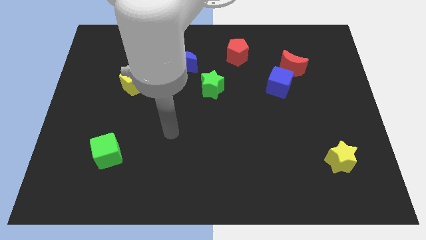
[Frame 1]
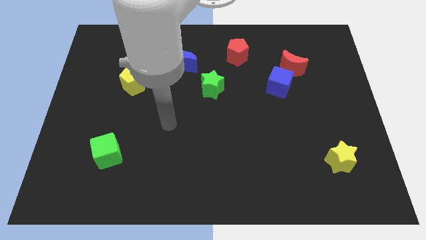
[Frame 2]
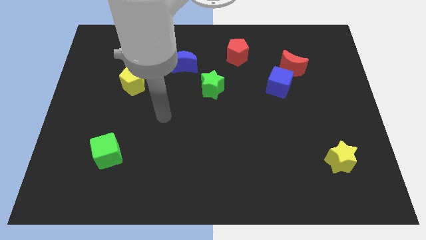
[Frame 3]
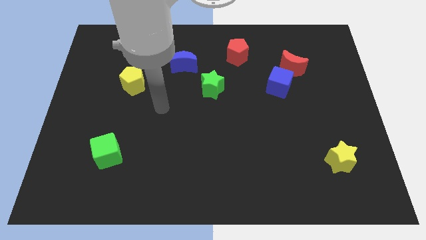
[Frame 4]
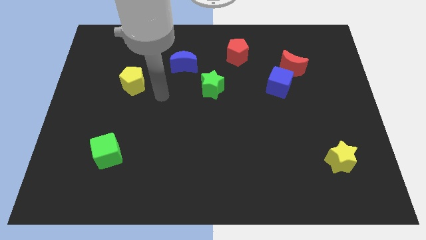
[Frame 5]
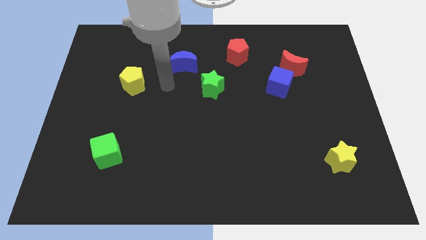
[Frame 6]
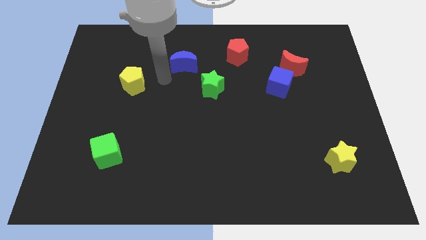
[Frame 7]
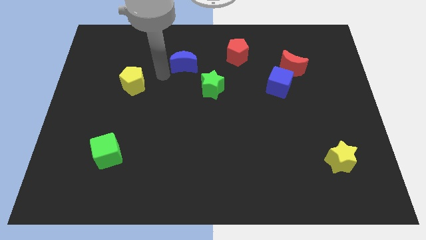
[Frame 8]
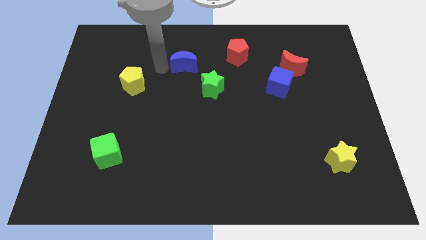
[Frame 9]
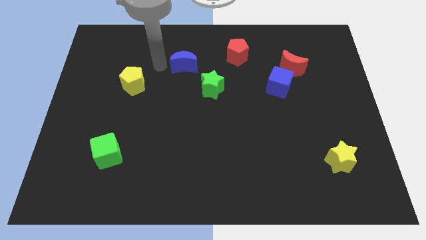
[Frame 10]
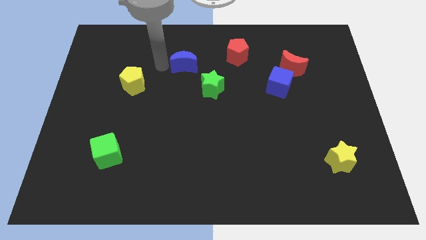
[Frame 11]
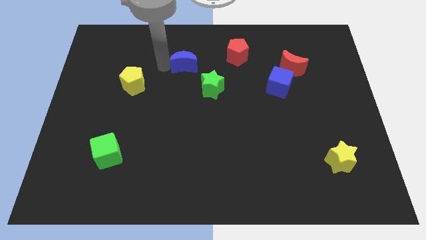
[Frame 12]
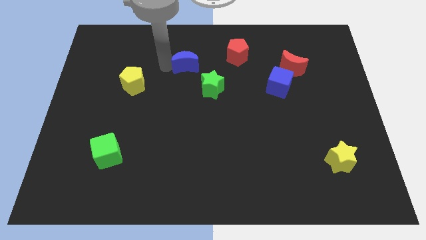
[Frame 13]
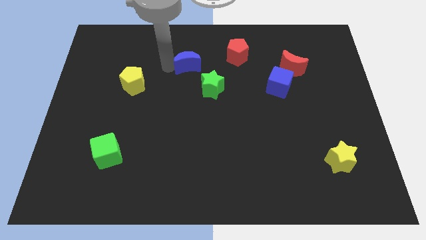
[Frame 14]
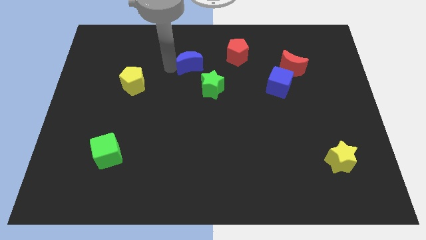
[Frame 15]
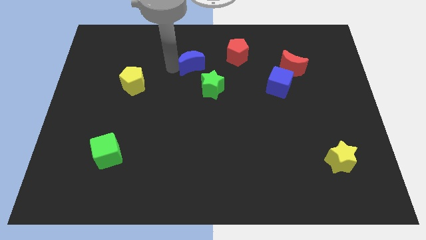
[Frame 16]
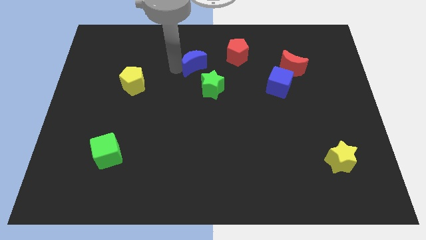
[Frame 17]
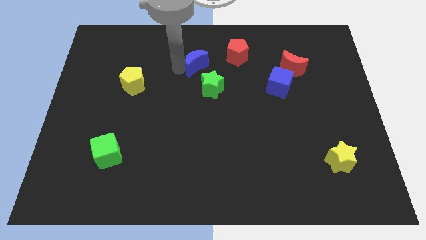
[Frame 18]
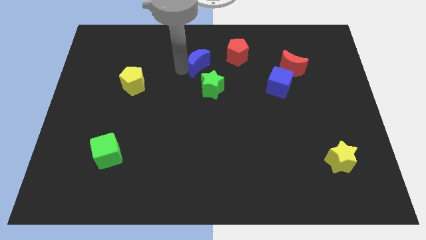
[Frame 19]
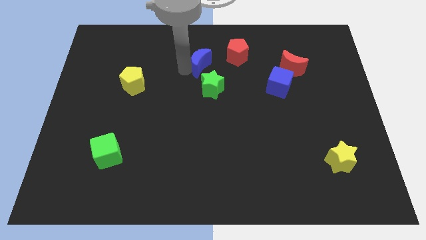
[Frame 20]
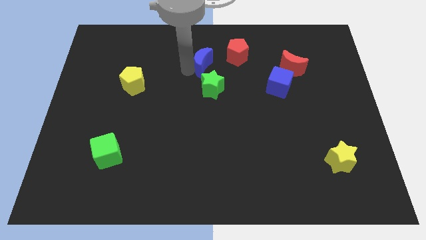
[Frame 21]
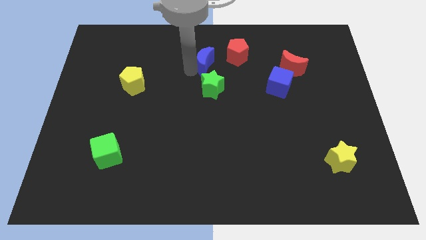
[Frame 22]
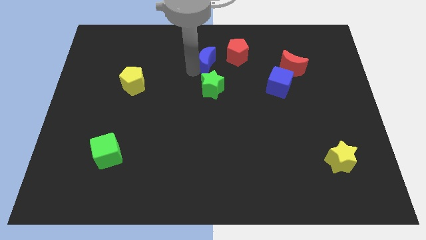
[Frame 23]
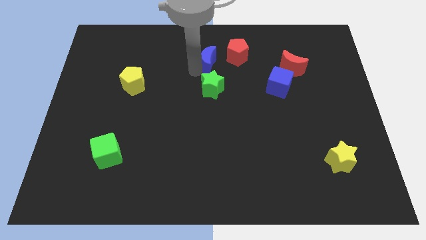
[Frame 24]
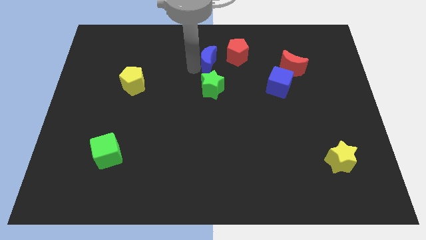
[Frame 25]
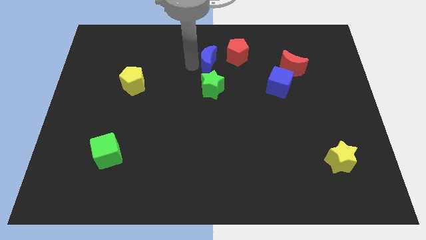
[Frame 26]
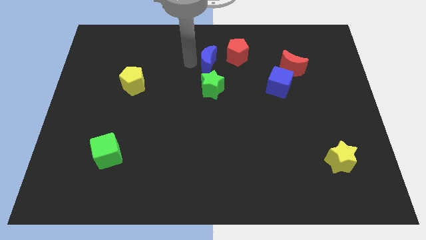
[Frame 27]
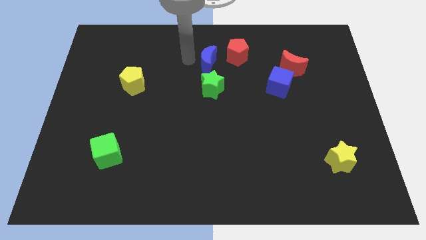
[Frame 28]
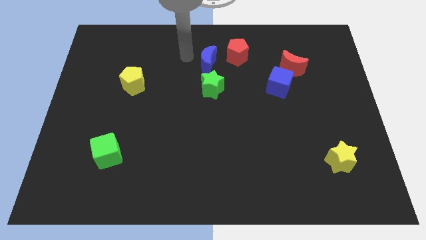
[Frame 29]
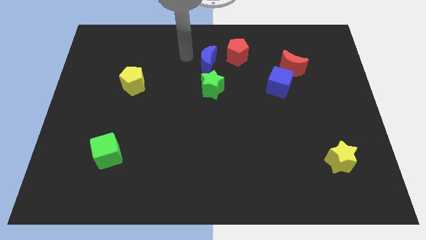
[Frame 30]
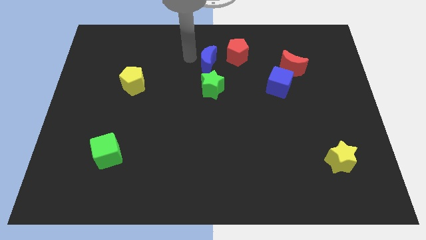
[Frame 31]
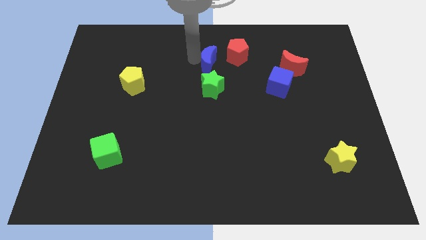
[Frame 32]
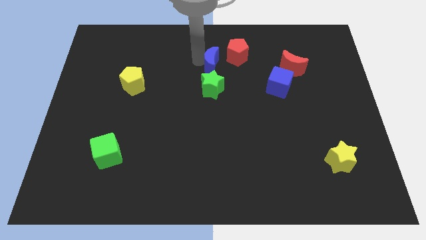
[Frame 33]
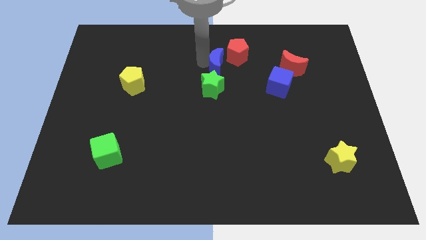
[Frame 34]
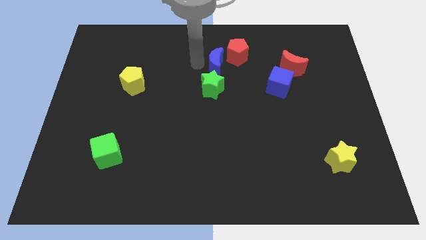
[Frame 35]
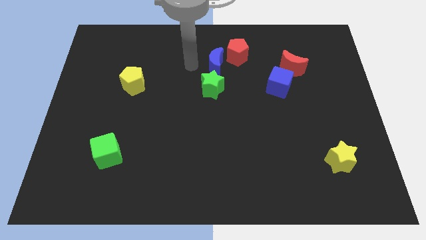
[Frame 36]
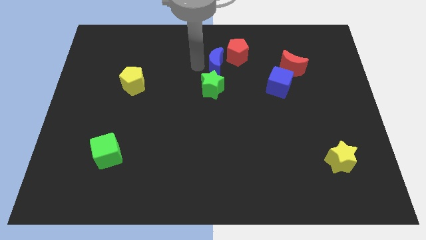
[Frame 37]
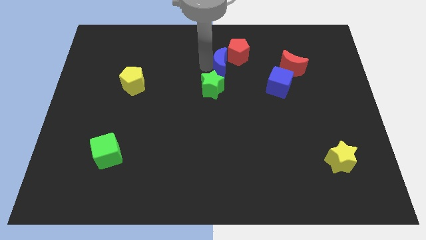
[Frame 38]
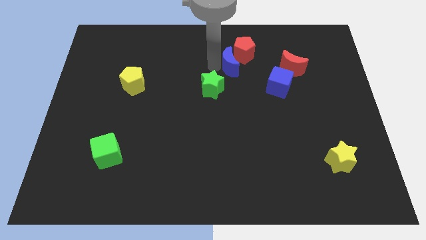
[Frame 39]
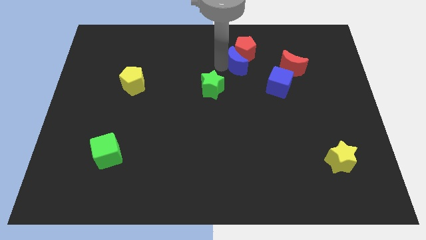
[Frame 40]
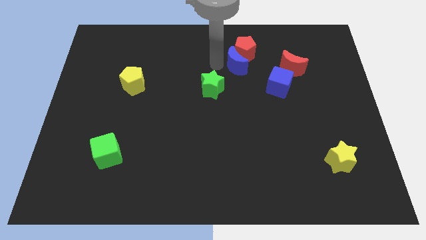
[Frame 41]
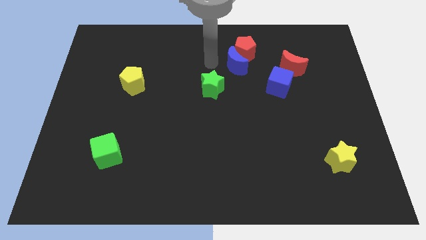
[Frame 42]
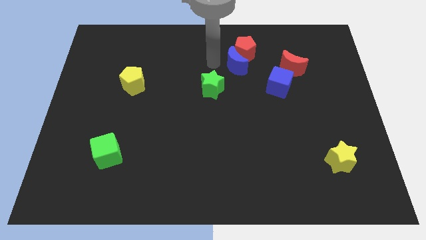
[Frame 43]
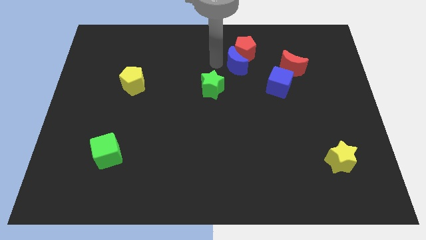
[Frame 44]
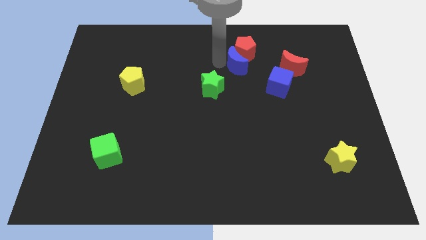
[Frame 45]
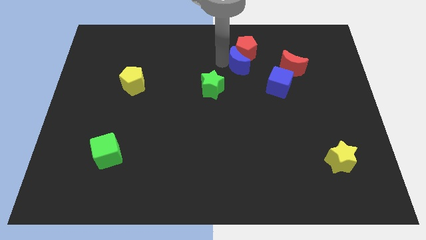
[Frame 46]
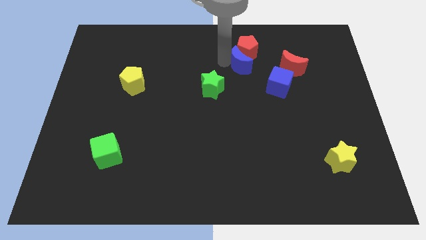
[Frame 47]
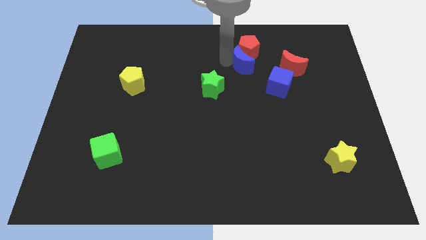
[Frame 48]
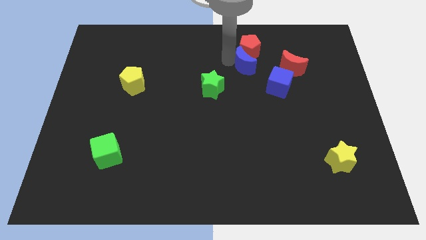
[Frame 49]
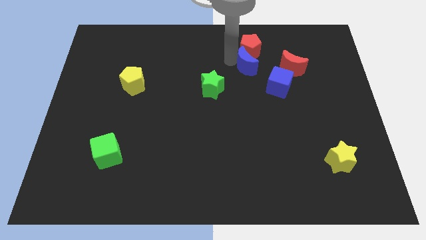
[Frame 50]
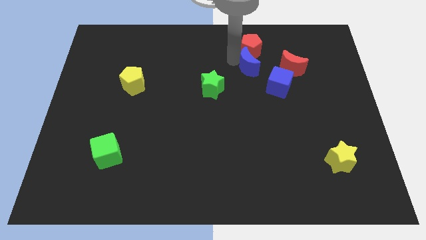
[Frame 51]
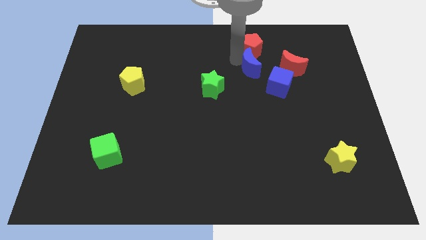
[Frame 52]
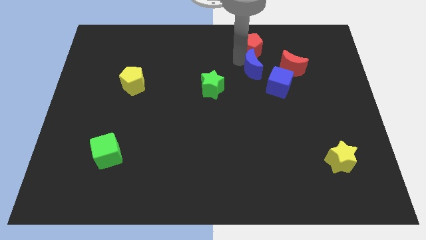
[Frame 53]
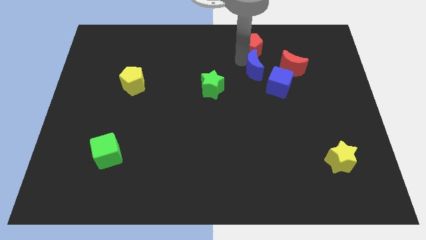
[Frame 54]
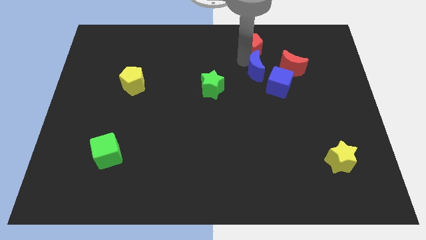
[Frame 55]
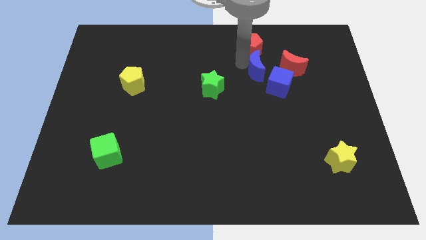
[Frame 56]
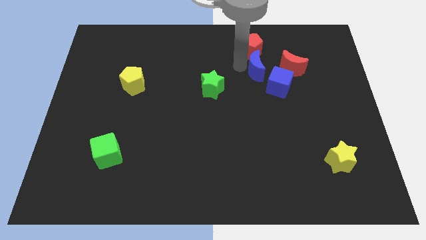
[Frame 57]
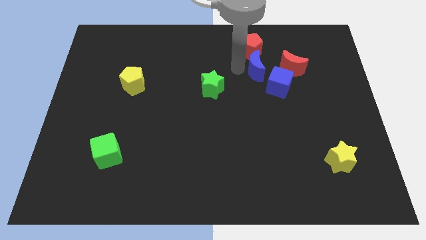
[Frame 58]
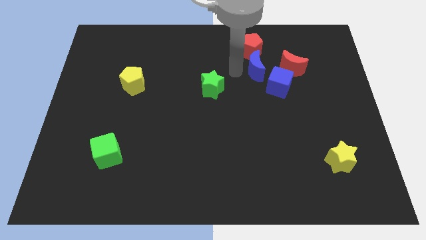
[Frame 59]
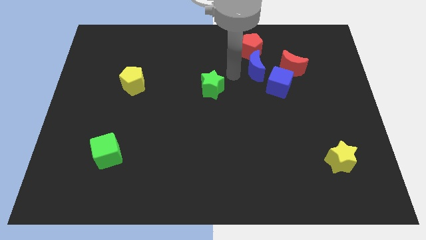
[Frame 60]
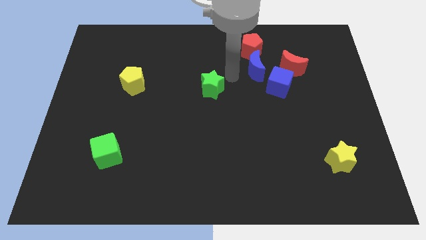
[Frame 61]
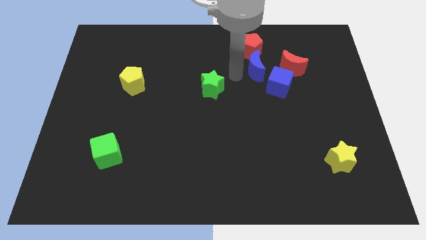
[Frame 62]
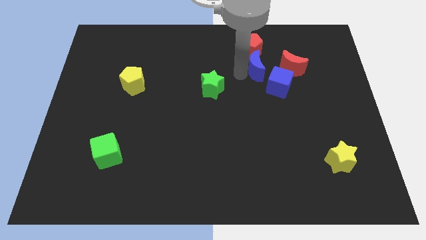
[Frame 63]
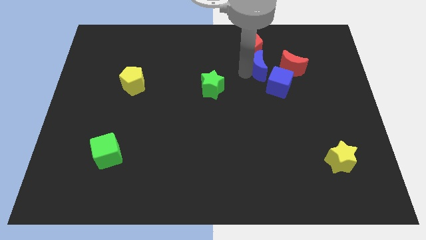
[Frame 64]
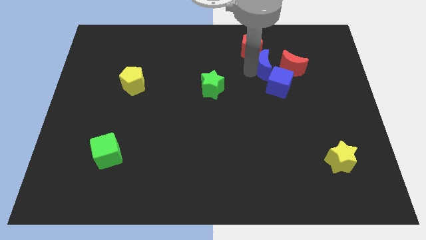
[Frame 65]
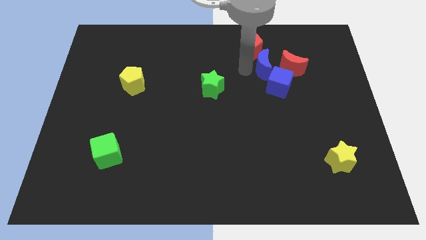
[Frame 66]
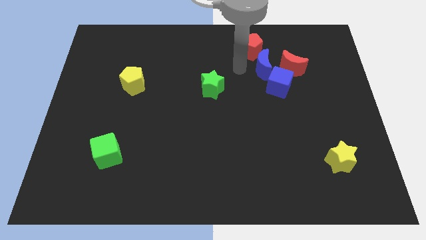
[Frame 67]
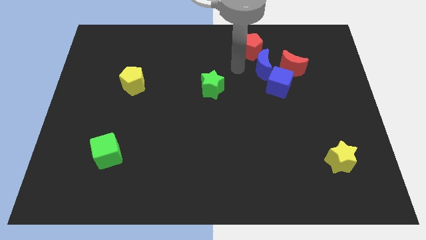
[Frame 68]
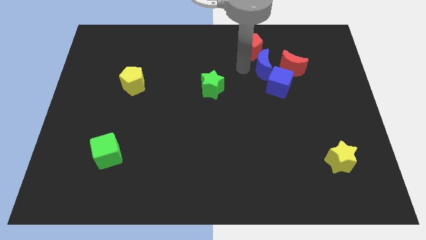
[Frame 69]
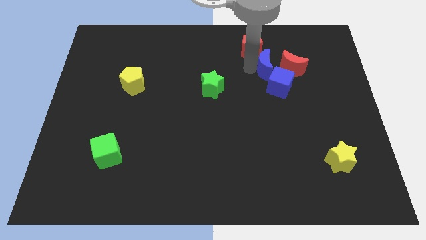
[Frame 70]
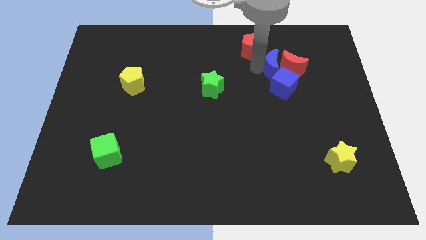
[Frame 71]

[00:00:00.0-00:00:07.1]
put the blue moon to the red moon
